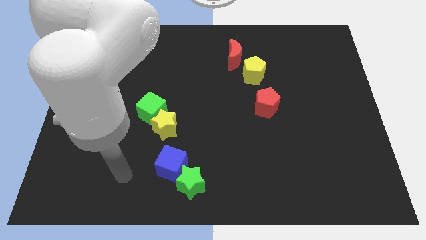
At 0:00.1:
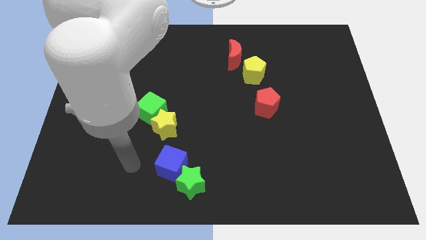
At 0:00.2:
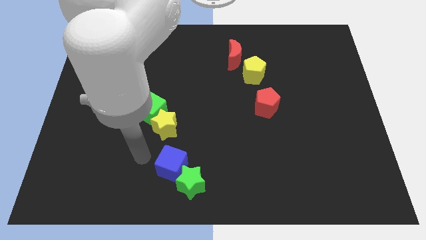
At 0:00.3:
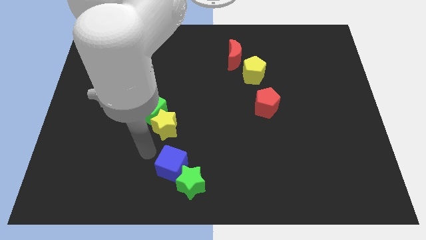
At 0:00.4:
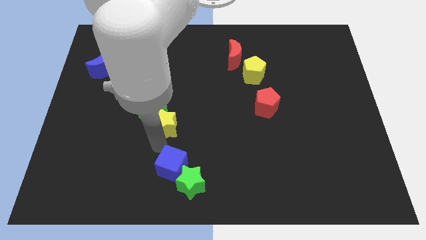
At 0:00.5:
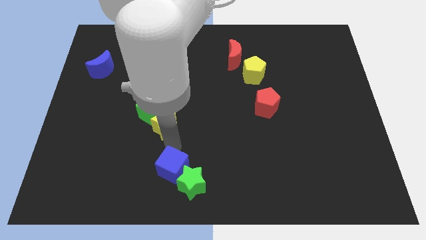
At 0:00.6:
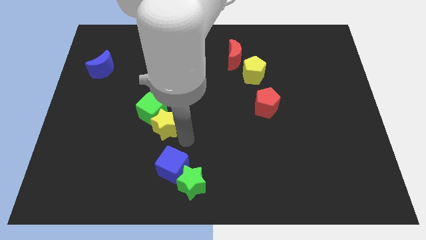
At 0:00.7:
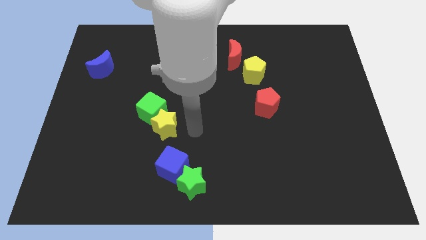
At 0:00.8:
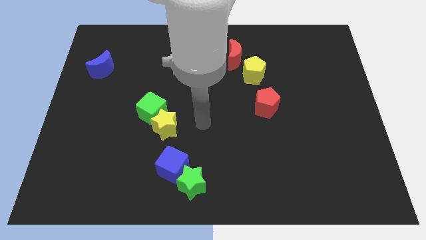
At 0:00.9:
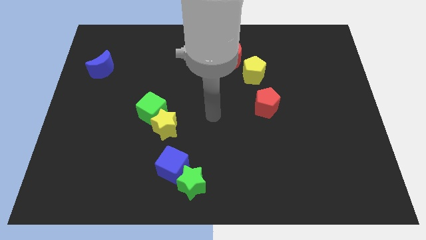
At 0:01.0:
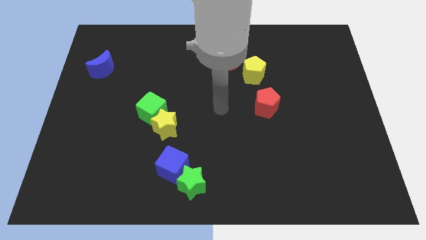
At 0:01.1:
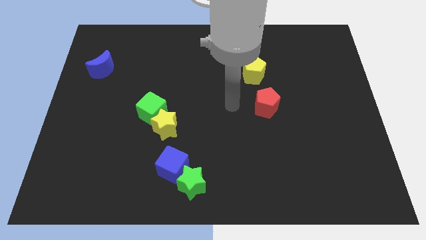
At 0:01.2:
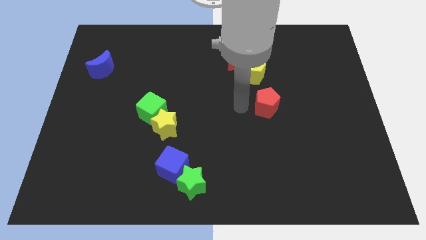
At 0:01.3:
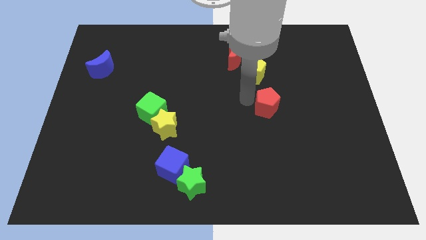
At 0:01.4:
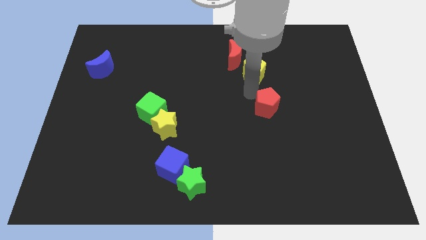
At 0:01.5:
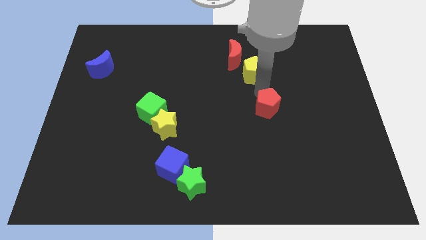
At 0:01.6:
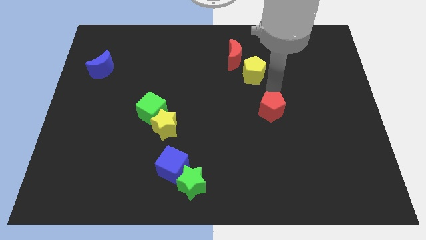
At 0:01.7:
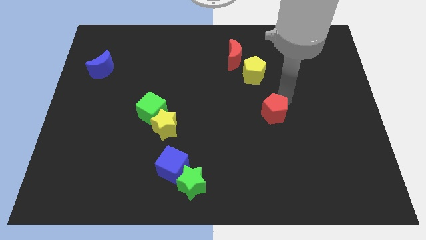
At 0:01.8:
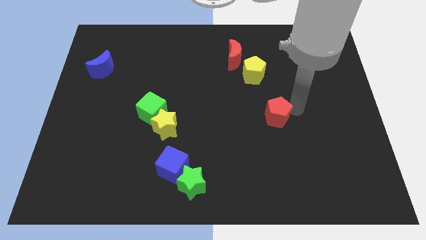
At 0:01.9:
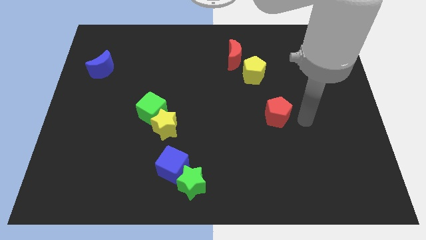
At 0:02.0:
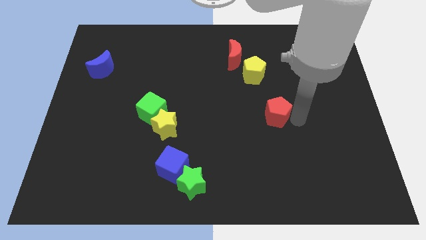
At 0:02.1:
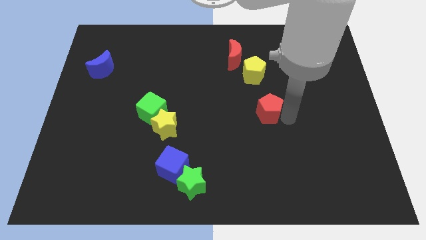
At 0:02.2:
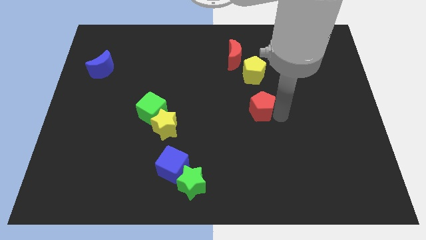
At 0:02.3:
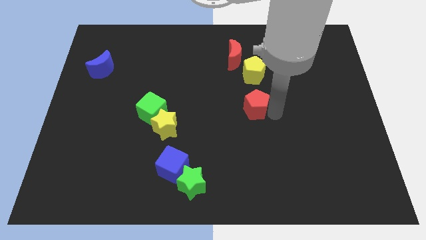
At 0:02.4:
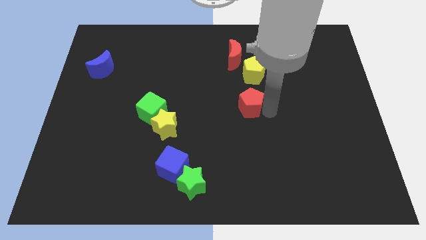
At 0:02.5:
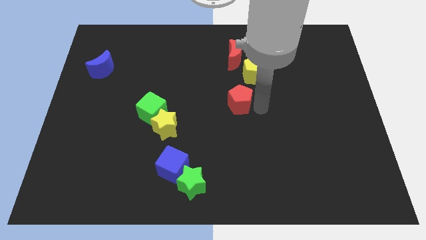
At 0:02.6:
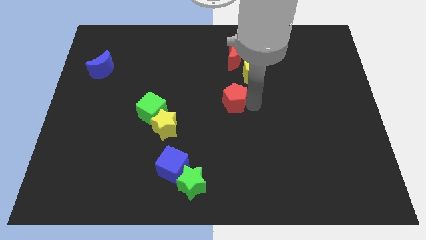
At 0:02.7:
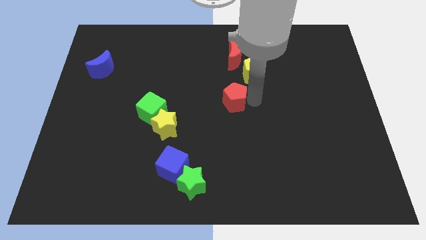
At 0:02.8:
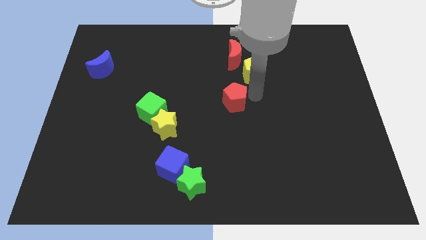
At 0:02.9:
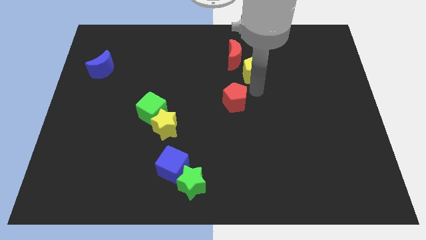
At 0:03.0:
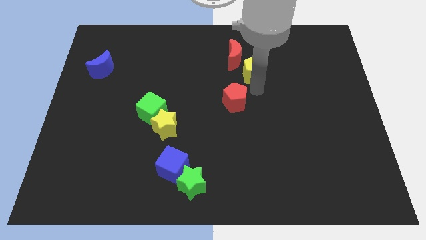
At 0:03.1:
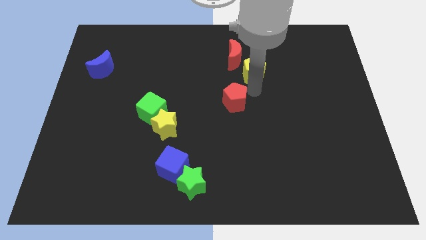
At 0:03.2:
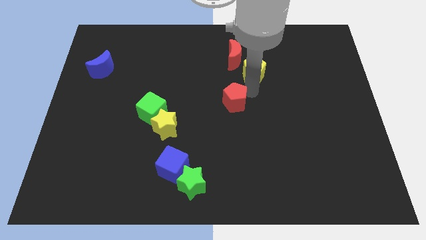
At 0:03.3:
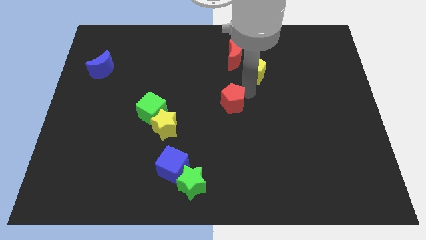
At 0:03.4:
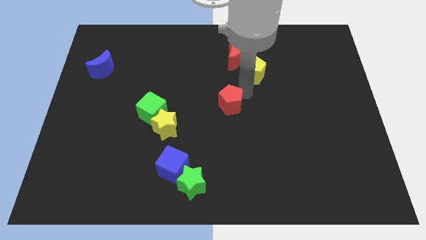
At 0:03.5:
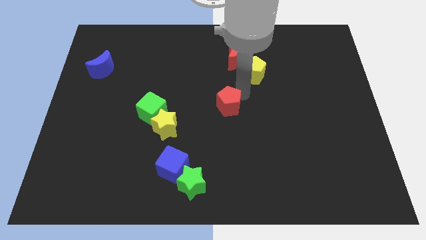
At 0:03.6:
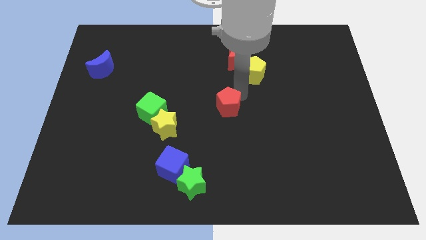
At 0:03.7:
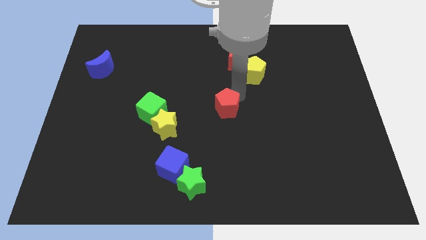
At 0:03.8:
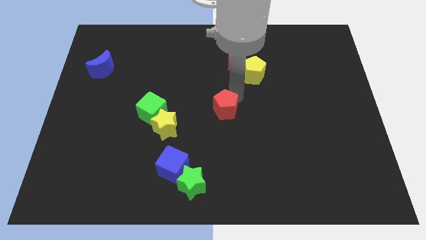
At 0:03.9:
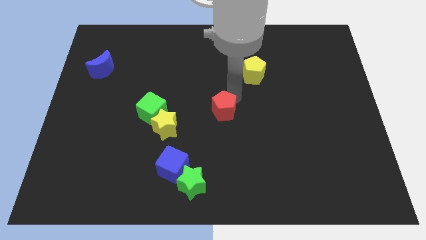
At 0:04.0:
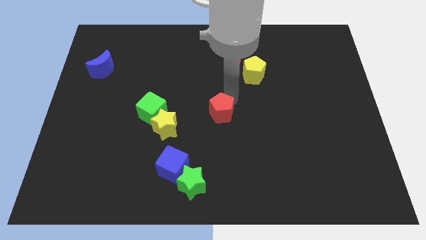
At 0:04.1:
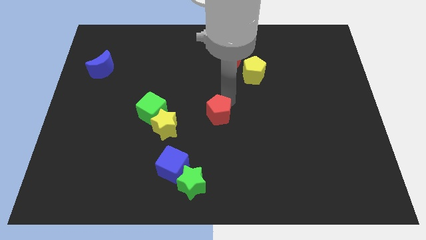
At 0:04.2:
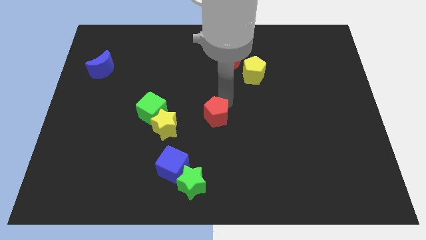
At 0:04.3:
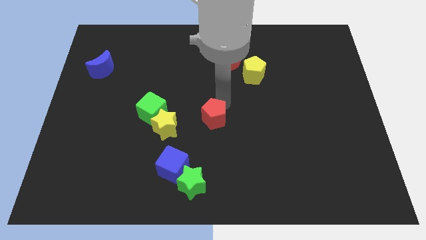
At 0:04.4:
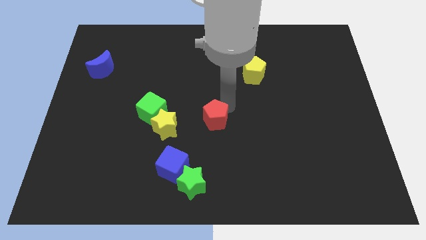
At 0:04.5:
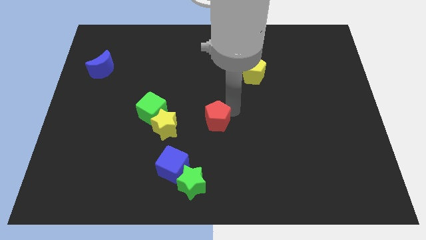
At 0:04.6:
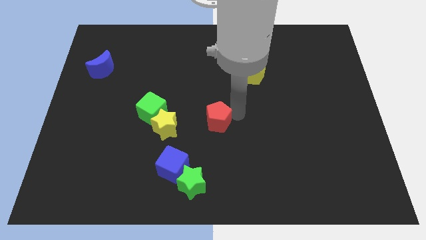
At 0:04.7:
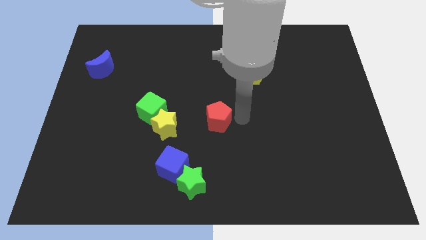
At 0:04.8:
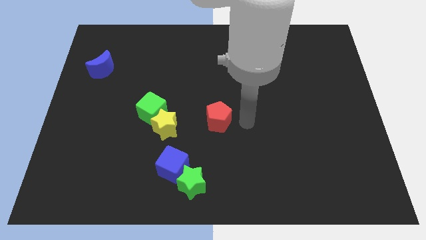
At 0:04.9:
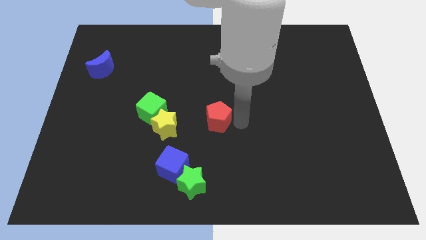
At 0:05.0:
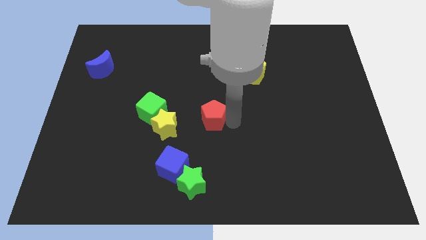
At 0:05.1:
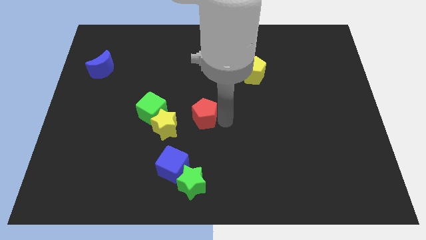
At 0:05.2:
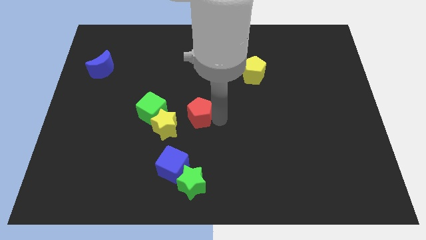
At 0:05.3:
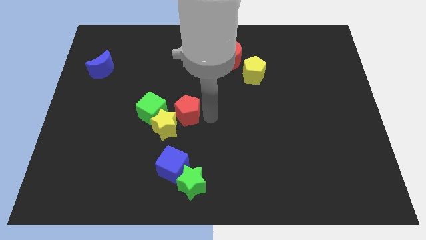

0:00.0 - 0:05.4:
move the red pentagon next to the yellow star

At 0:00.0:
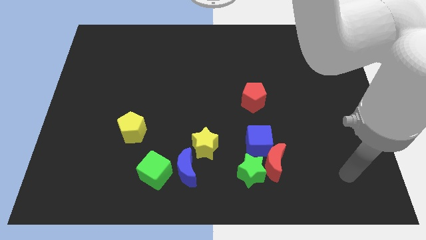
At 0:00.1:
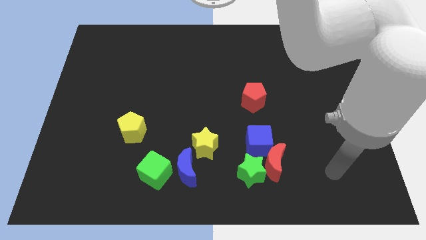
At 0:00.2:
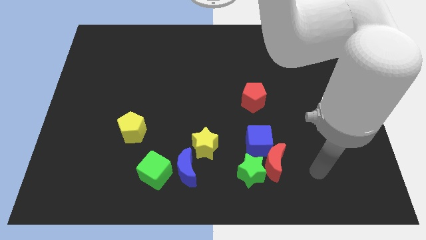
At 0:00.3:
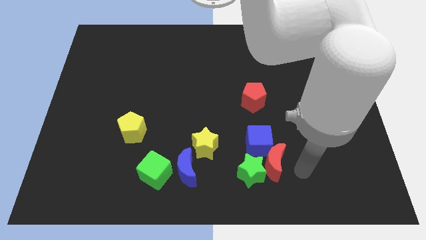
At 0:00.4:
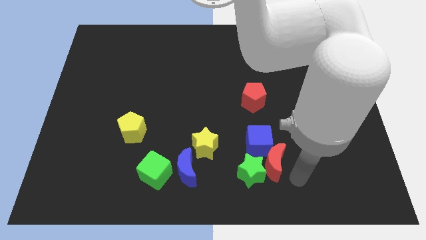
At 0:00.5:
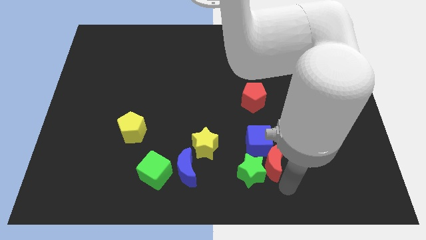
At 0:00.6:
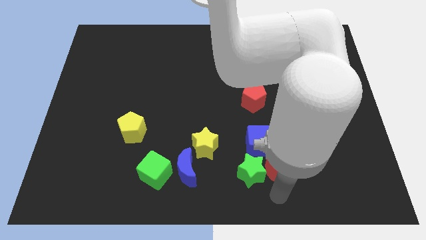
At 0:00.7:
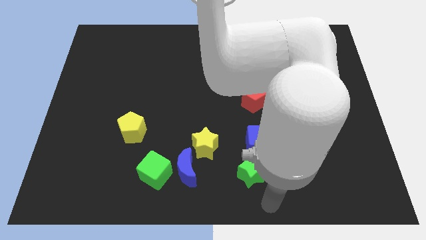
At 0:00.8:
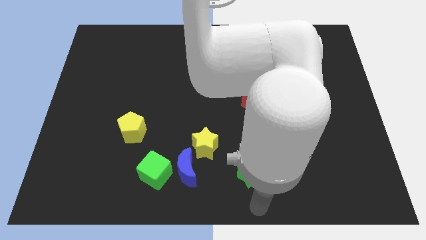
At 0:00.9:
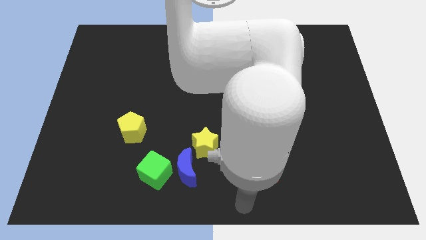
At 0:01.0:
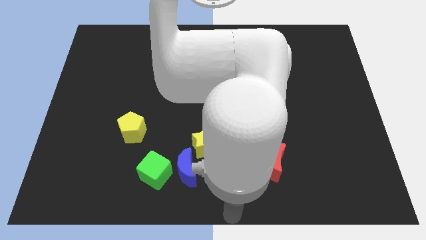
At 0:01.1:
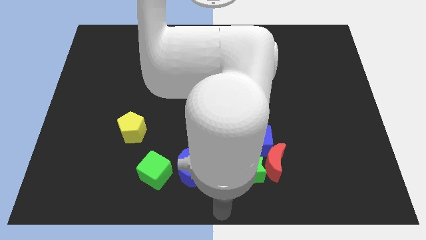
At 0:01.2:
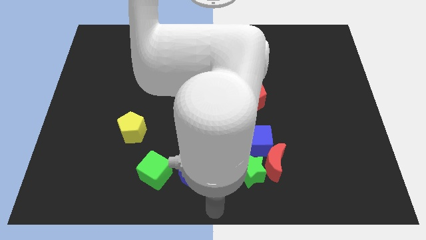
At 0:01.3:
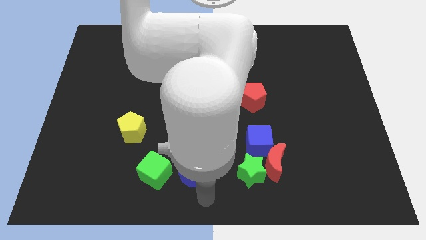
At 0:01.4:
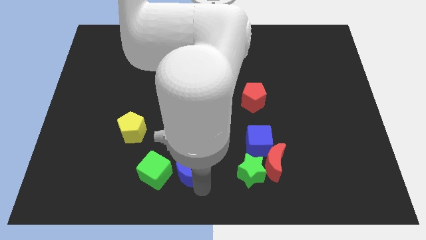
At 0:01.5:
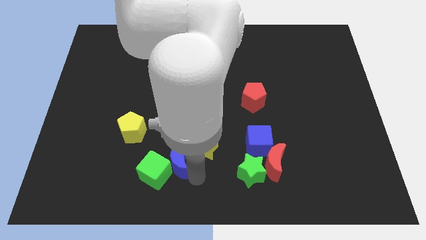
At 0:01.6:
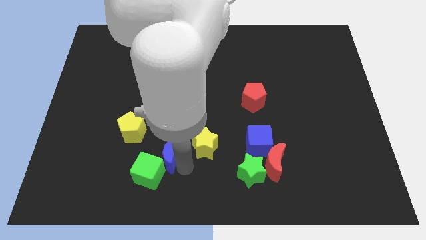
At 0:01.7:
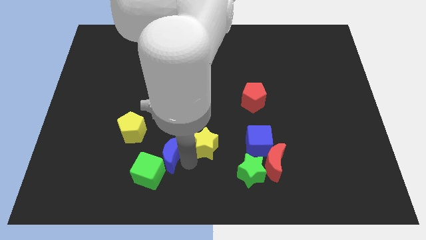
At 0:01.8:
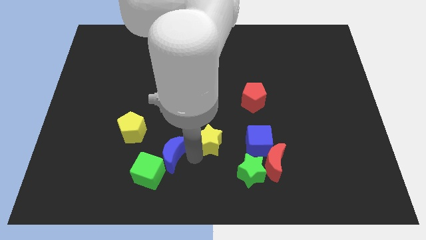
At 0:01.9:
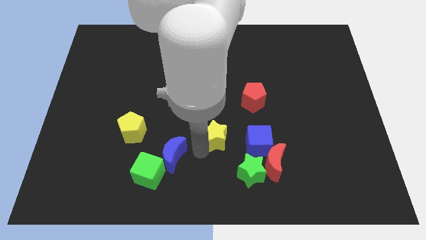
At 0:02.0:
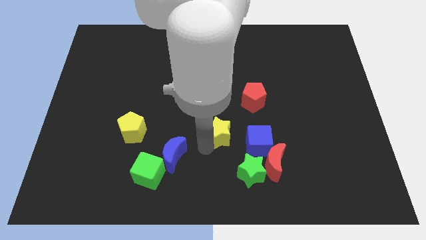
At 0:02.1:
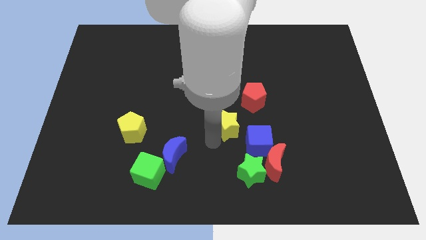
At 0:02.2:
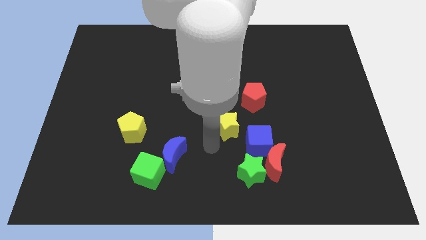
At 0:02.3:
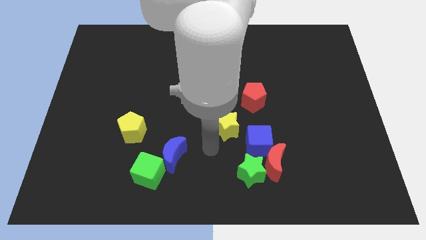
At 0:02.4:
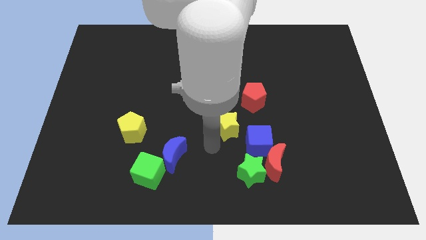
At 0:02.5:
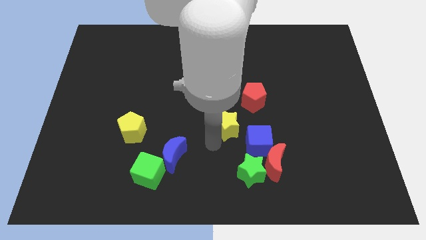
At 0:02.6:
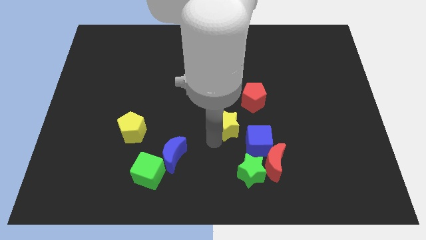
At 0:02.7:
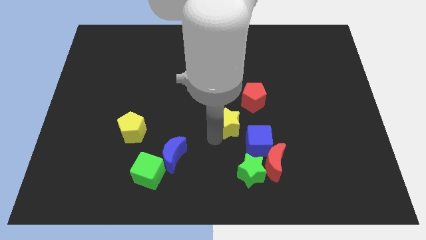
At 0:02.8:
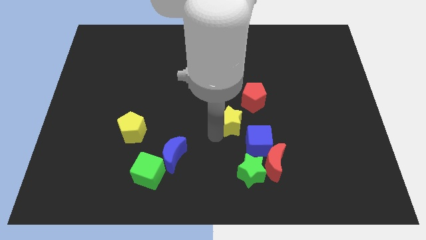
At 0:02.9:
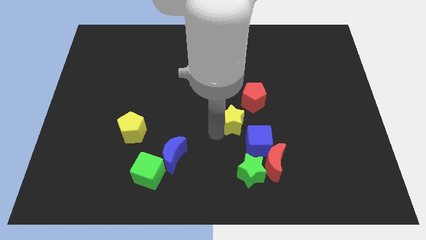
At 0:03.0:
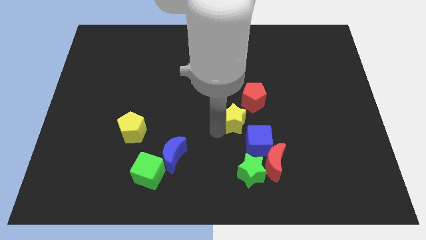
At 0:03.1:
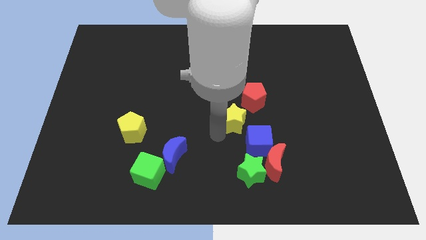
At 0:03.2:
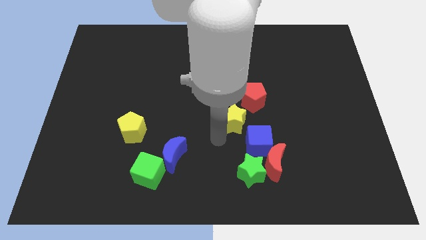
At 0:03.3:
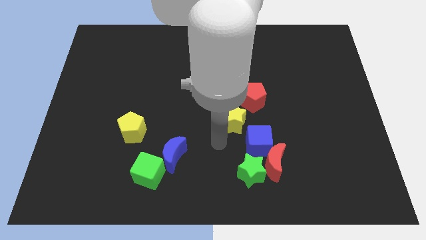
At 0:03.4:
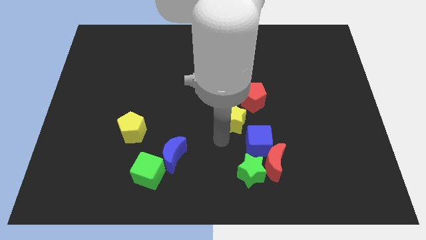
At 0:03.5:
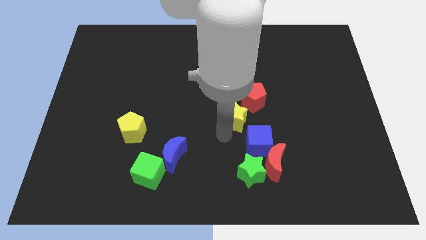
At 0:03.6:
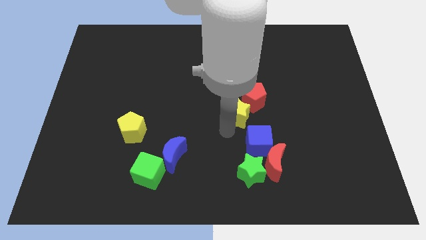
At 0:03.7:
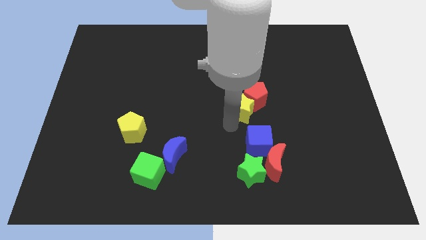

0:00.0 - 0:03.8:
slide the yellow star next to the red pentagon
